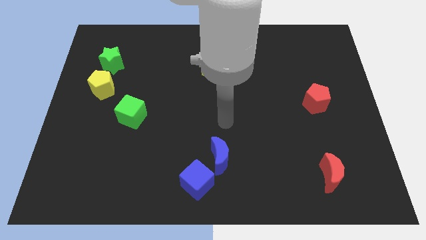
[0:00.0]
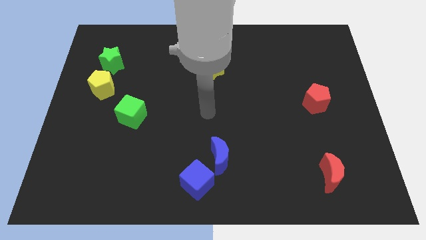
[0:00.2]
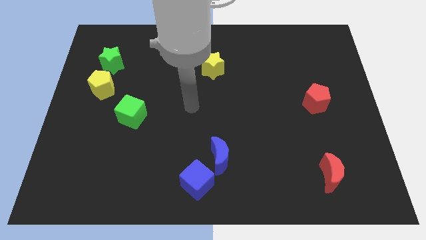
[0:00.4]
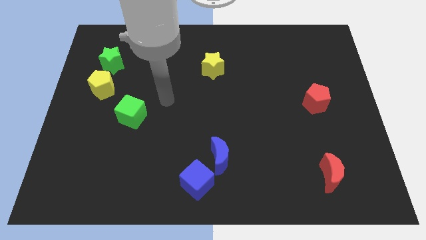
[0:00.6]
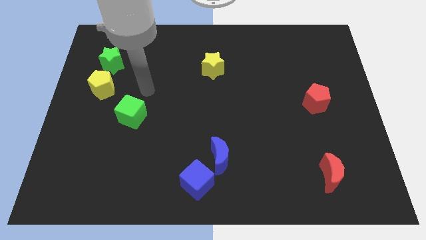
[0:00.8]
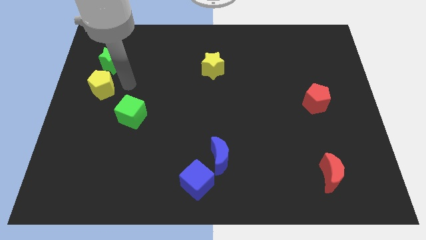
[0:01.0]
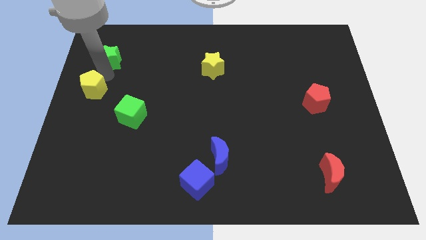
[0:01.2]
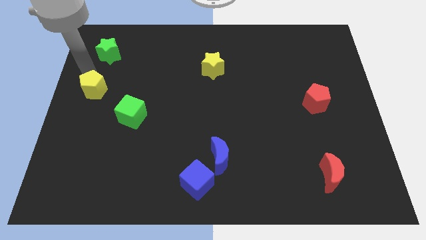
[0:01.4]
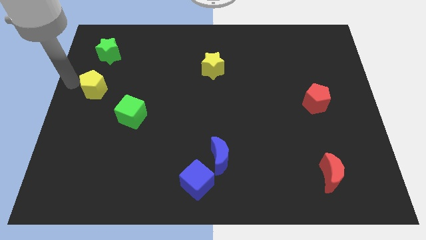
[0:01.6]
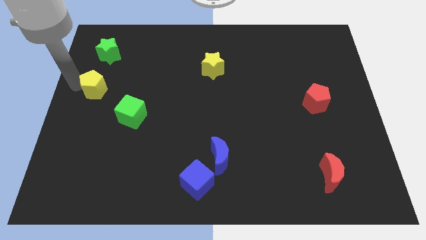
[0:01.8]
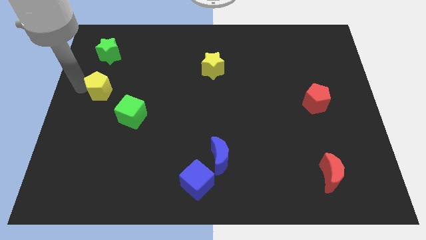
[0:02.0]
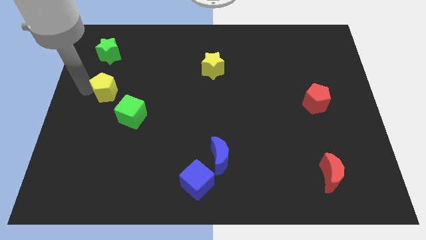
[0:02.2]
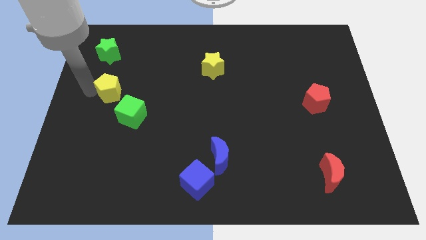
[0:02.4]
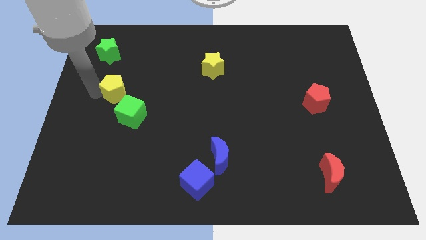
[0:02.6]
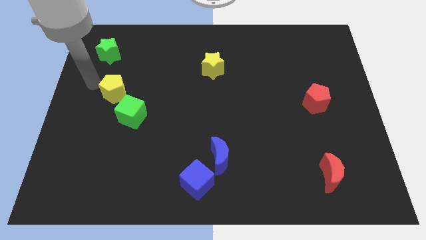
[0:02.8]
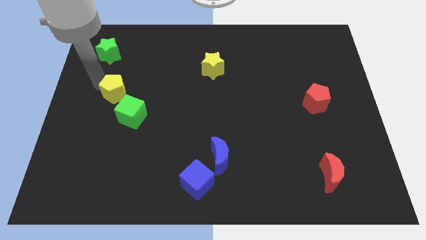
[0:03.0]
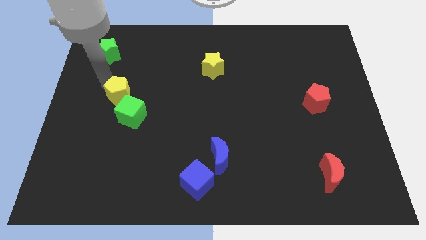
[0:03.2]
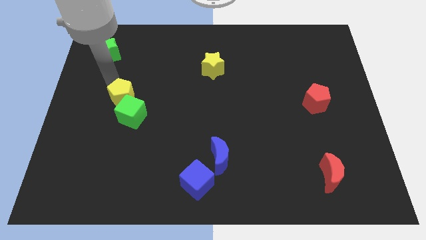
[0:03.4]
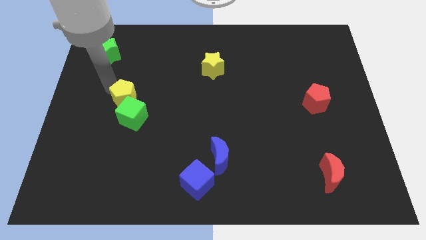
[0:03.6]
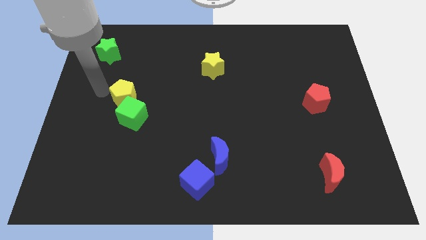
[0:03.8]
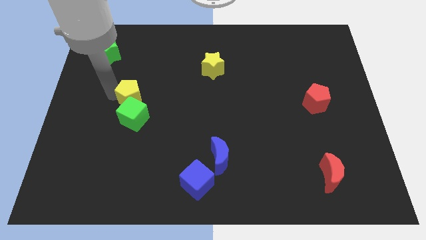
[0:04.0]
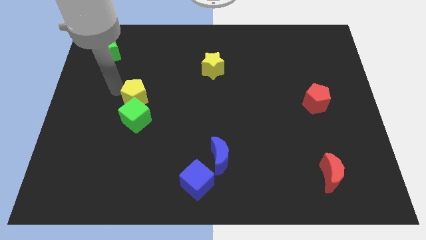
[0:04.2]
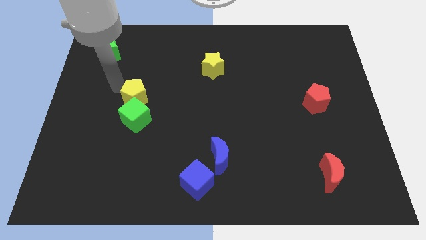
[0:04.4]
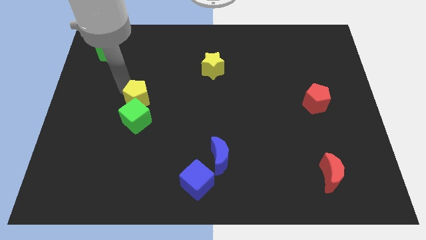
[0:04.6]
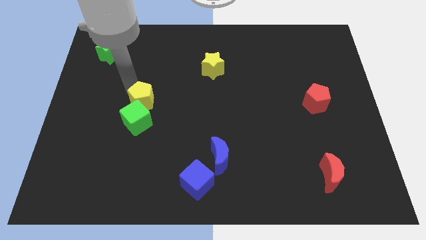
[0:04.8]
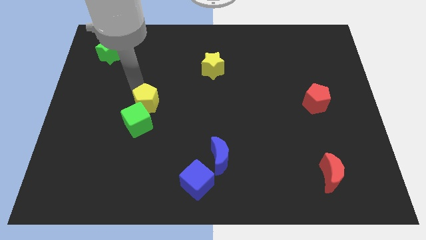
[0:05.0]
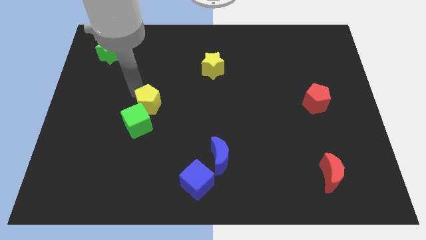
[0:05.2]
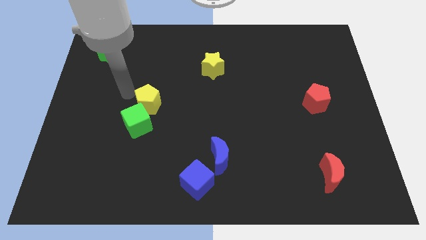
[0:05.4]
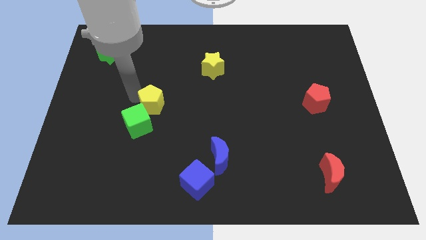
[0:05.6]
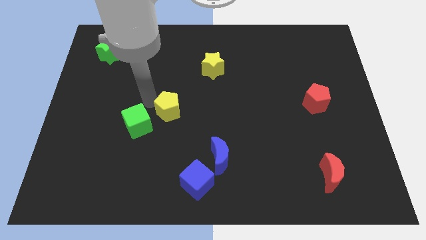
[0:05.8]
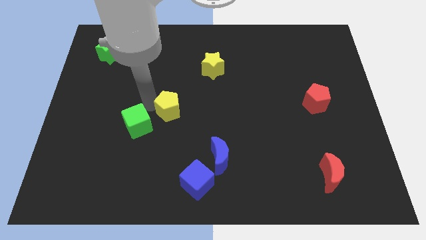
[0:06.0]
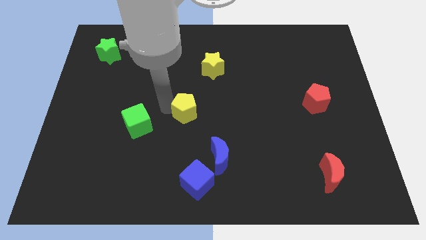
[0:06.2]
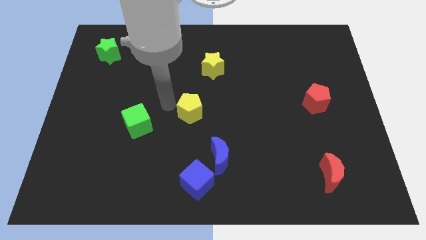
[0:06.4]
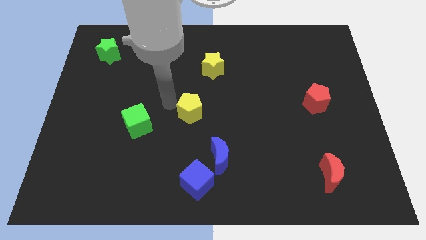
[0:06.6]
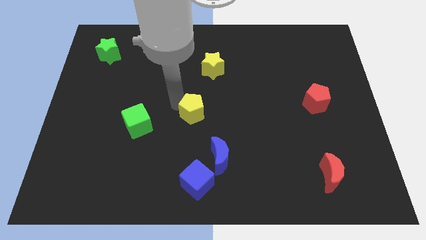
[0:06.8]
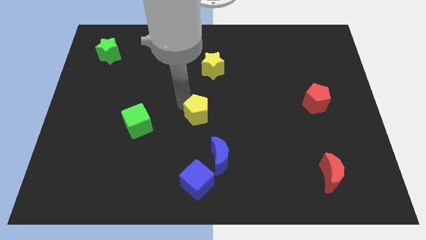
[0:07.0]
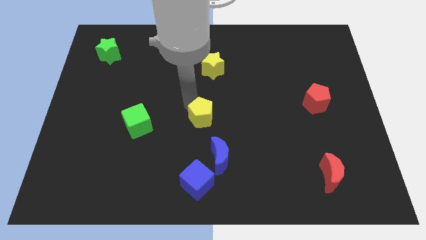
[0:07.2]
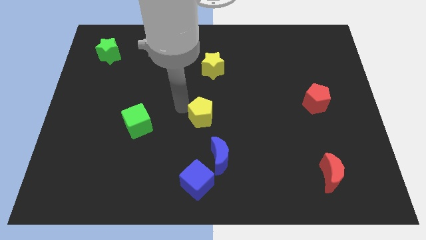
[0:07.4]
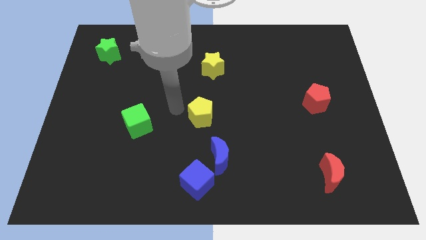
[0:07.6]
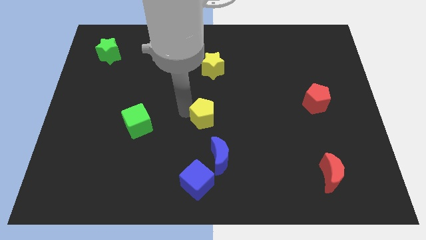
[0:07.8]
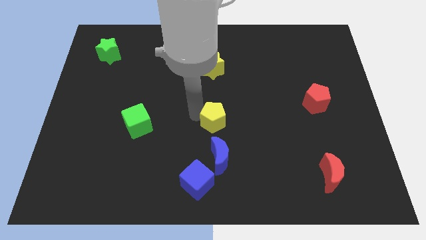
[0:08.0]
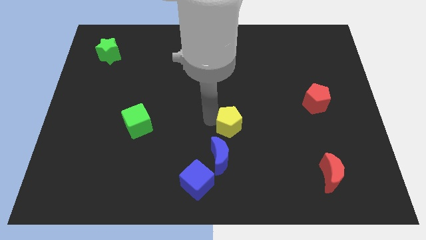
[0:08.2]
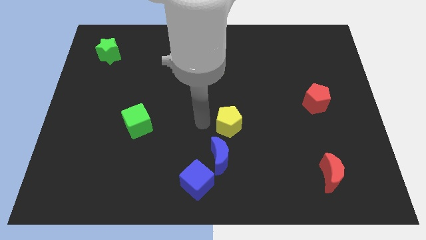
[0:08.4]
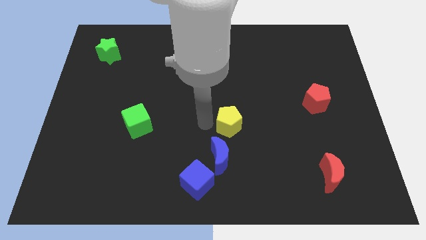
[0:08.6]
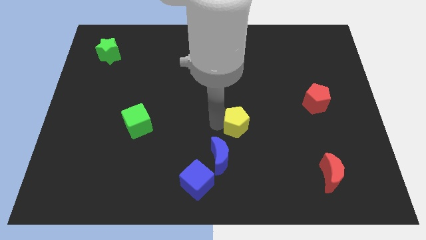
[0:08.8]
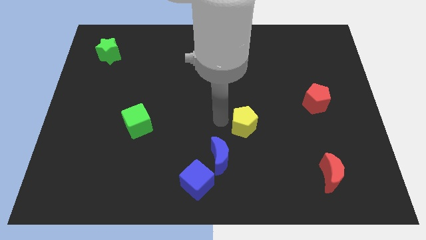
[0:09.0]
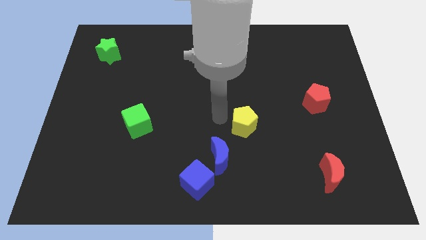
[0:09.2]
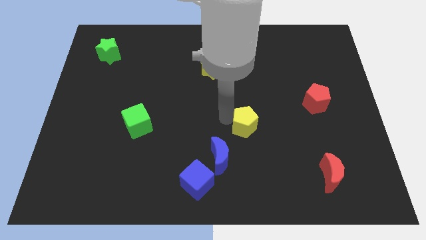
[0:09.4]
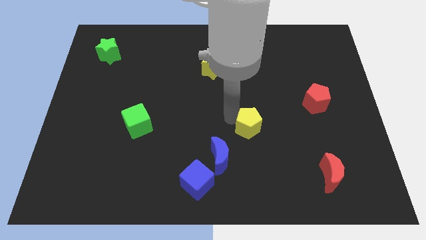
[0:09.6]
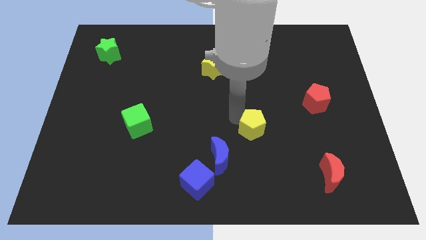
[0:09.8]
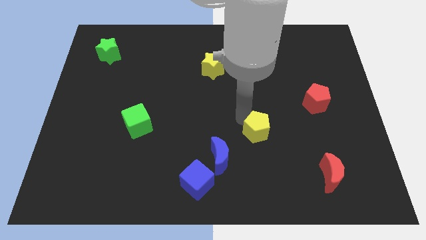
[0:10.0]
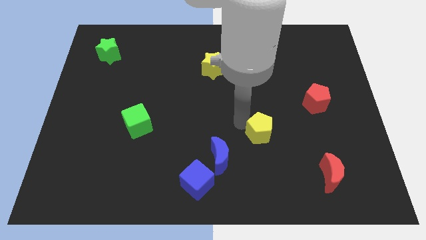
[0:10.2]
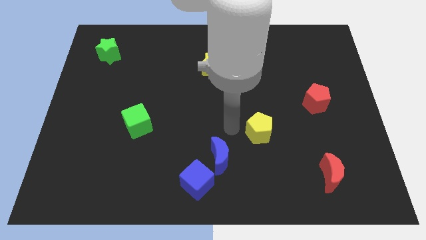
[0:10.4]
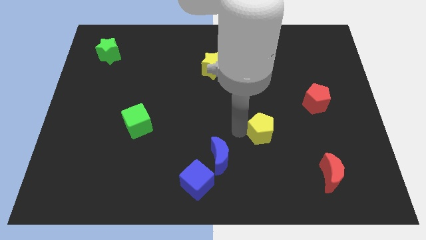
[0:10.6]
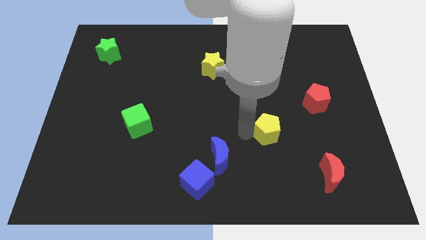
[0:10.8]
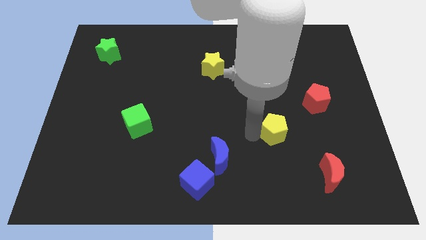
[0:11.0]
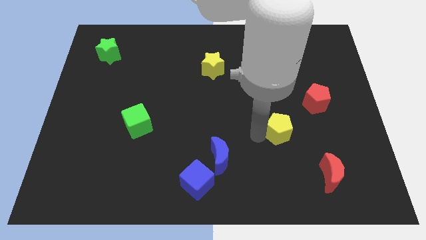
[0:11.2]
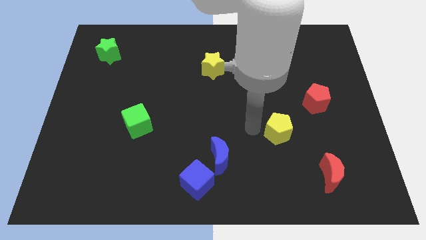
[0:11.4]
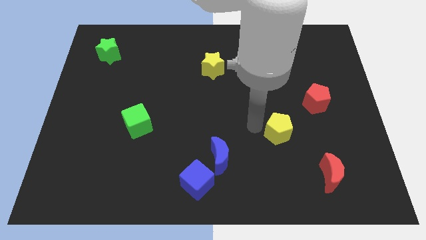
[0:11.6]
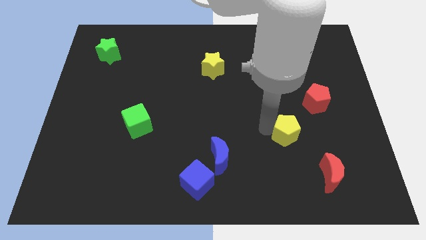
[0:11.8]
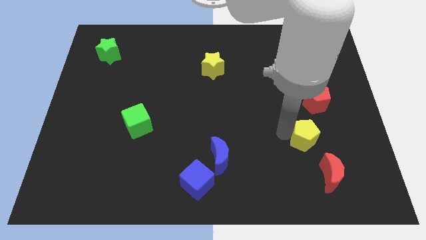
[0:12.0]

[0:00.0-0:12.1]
slide the yellow pentagon to the bottom of the red pentagon
